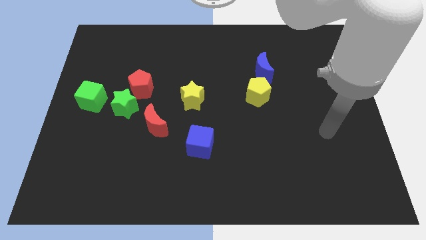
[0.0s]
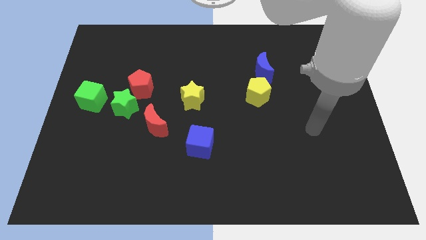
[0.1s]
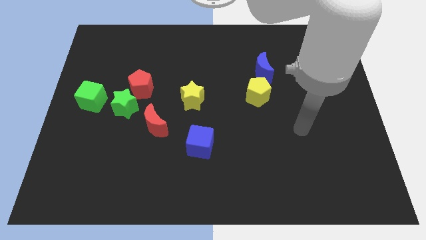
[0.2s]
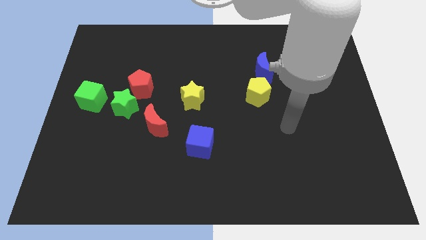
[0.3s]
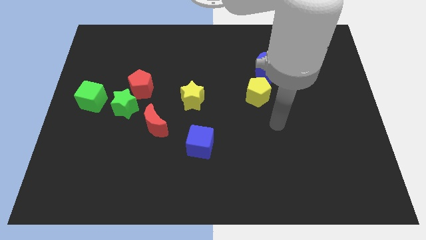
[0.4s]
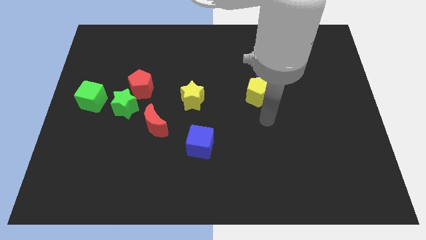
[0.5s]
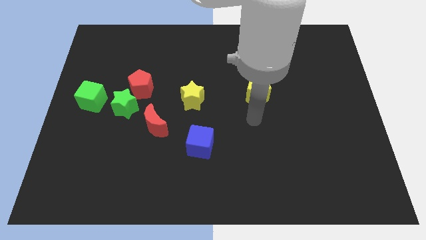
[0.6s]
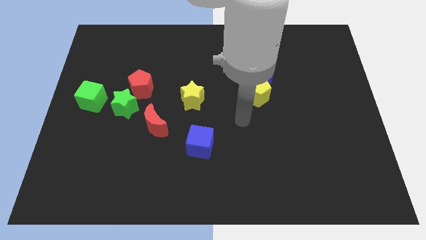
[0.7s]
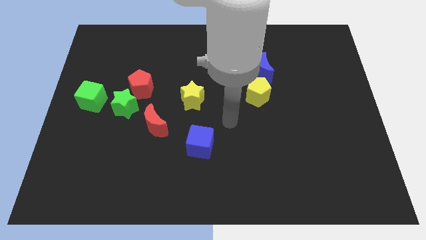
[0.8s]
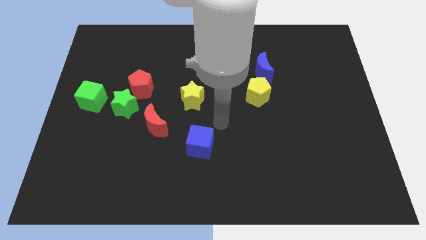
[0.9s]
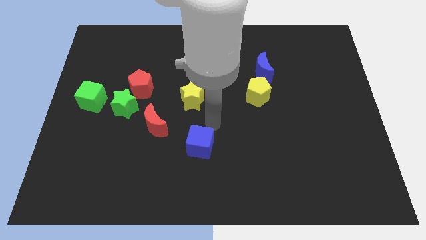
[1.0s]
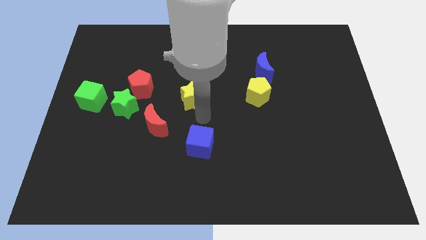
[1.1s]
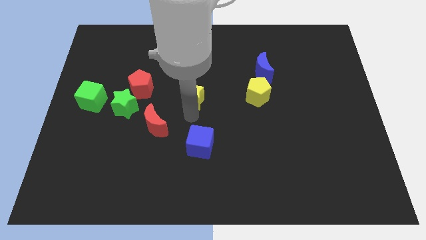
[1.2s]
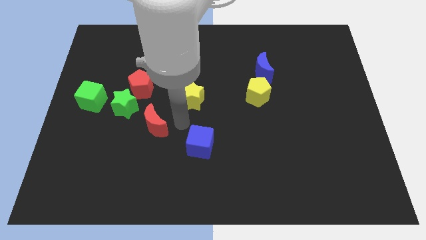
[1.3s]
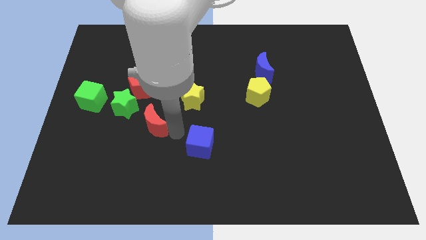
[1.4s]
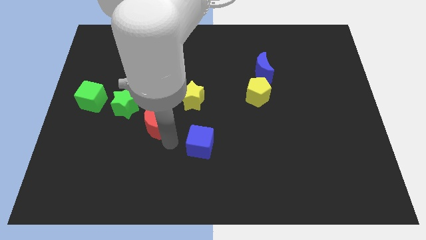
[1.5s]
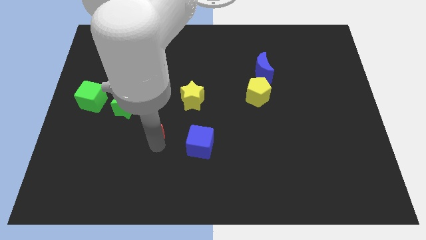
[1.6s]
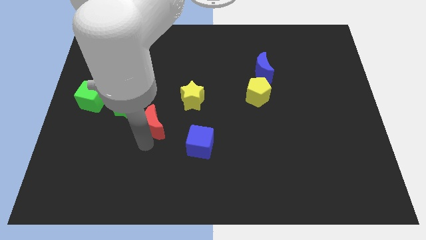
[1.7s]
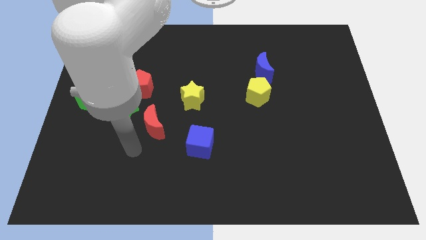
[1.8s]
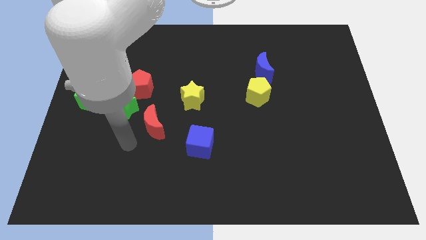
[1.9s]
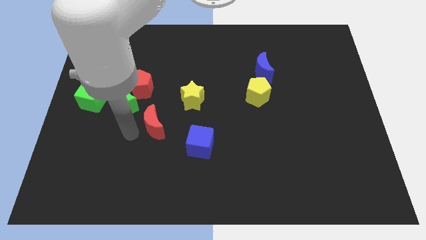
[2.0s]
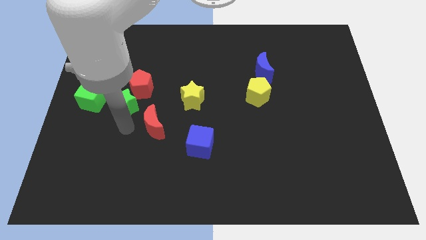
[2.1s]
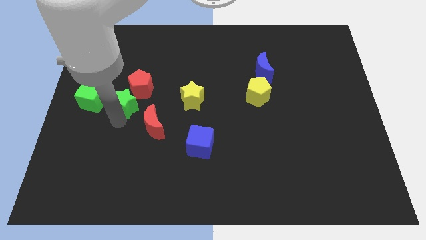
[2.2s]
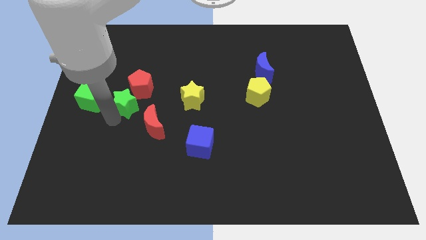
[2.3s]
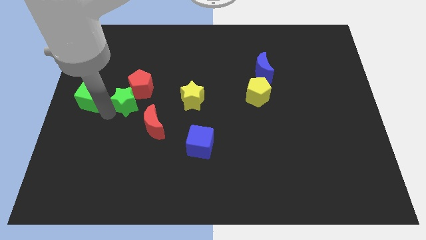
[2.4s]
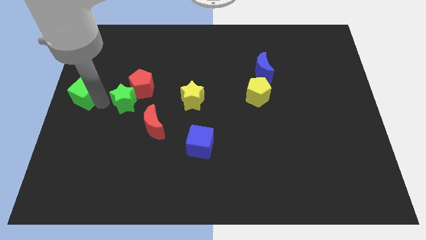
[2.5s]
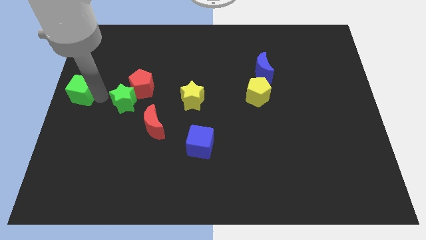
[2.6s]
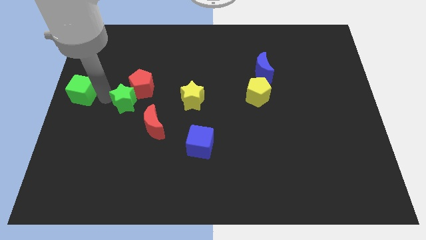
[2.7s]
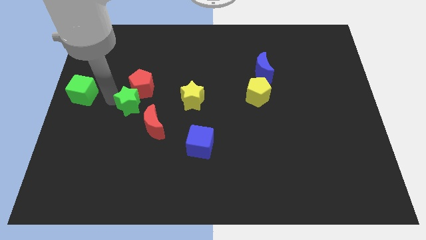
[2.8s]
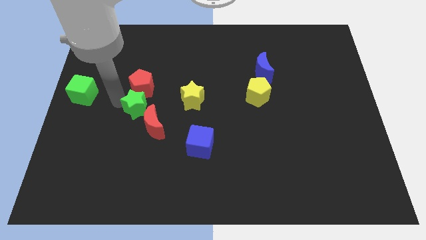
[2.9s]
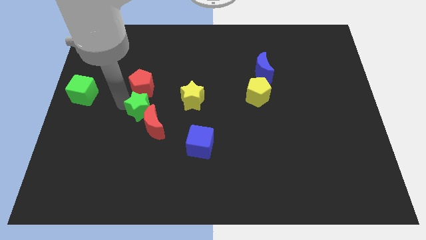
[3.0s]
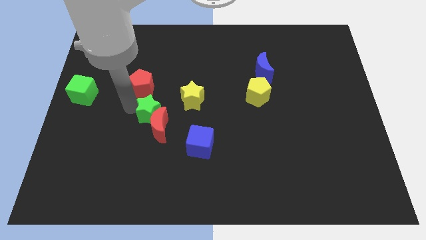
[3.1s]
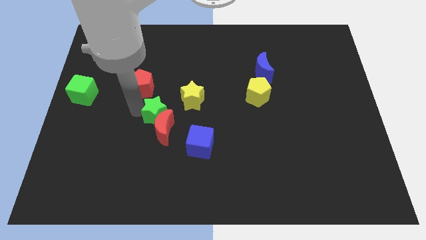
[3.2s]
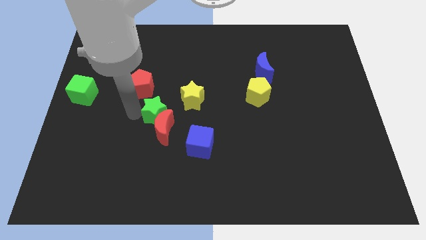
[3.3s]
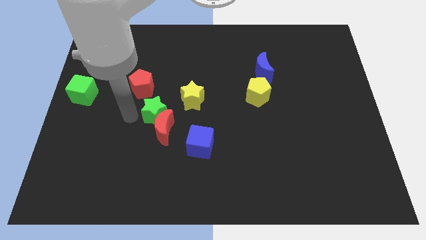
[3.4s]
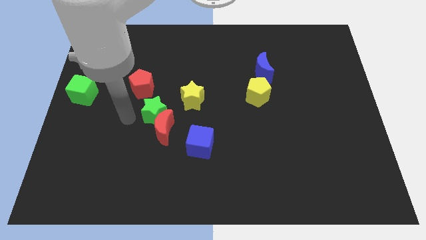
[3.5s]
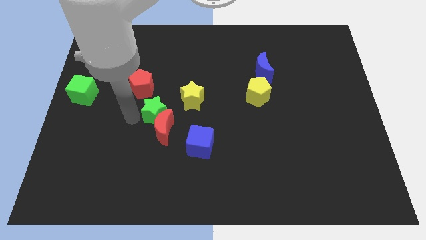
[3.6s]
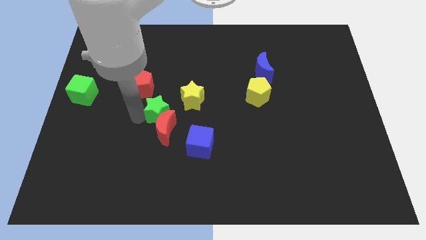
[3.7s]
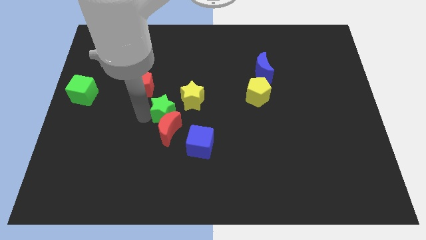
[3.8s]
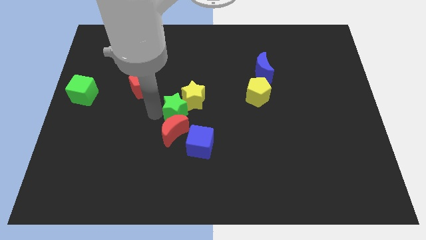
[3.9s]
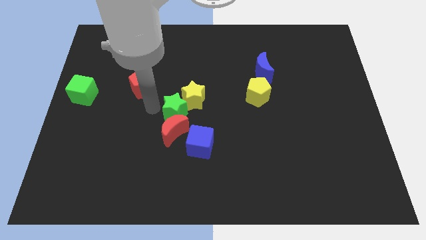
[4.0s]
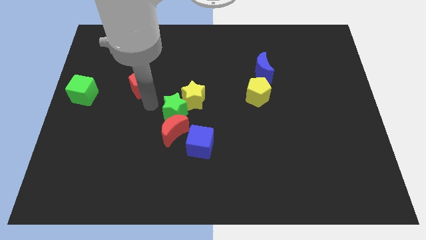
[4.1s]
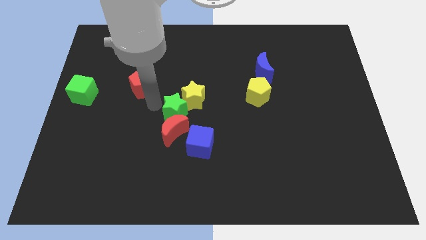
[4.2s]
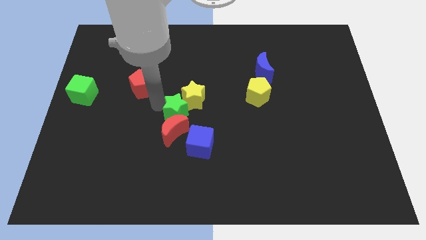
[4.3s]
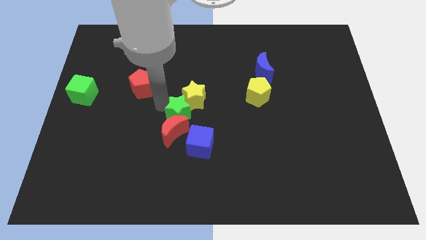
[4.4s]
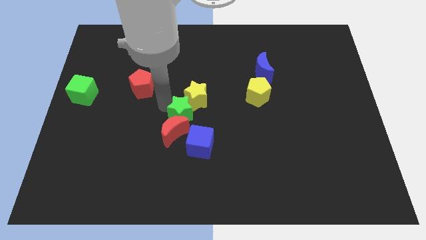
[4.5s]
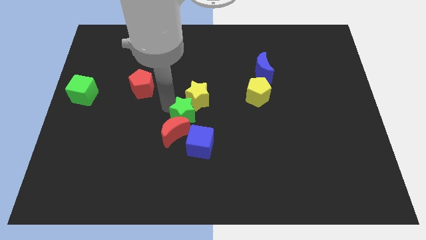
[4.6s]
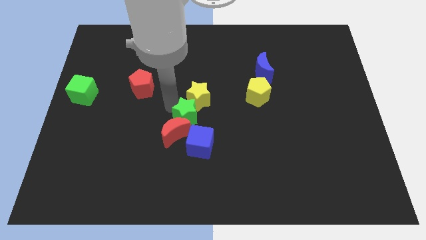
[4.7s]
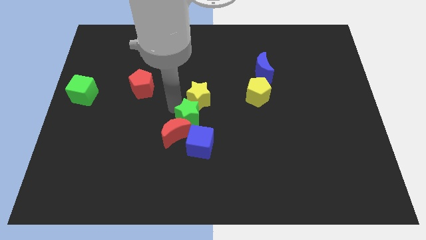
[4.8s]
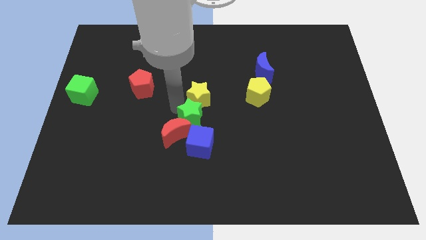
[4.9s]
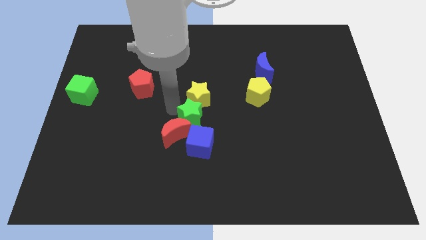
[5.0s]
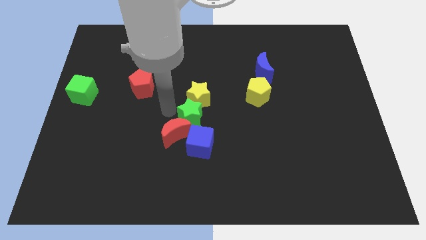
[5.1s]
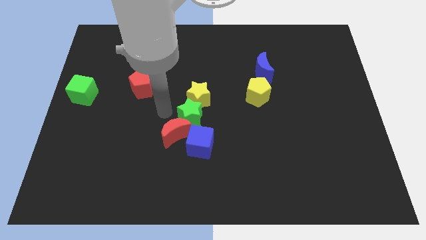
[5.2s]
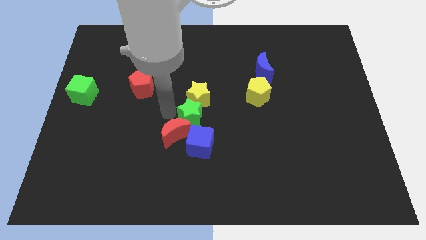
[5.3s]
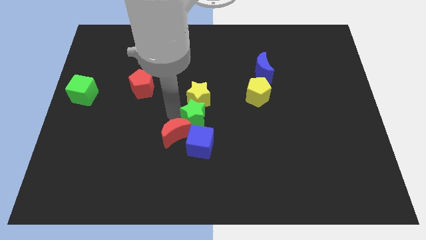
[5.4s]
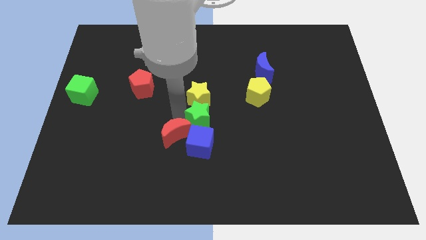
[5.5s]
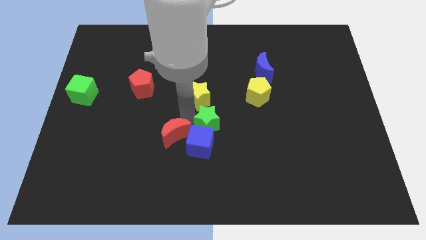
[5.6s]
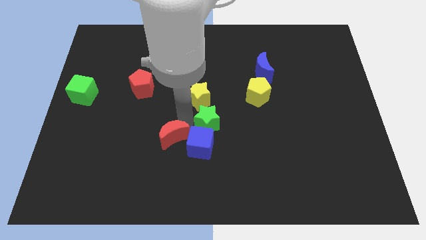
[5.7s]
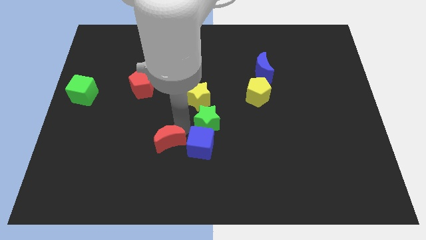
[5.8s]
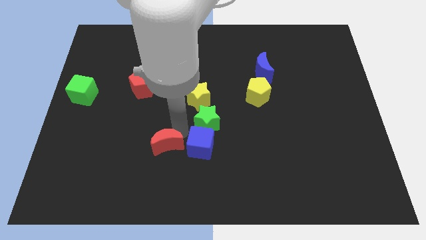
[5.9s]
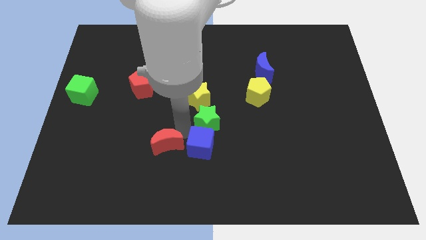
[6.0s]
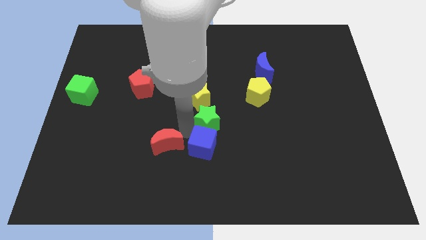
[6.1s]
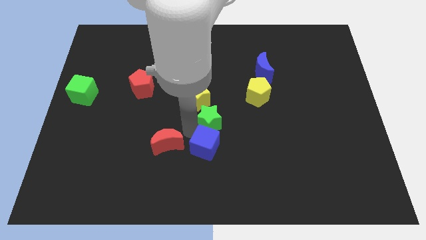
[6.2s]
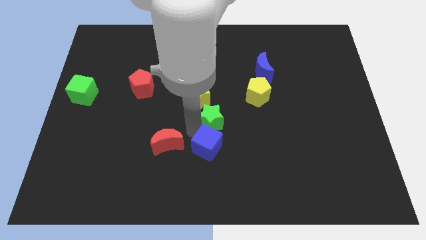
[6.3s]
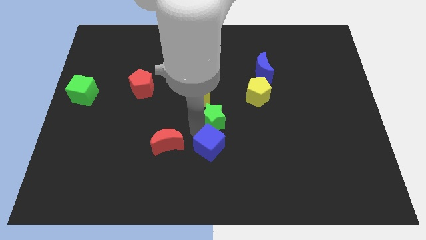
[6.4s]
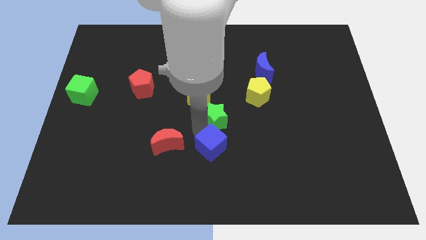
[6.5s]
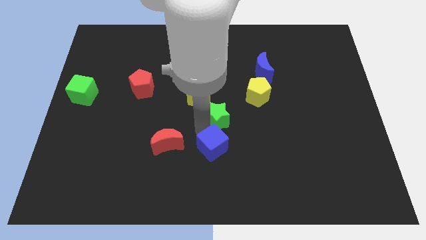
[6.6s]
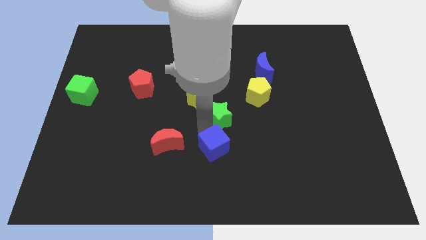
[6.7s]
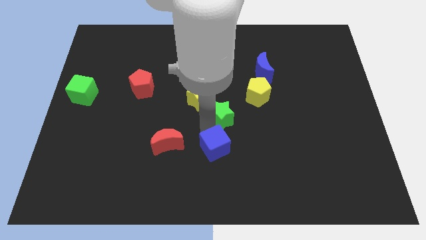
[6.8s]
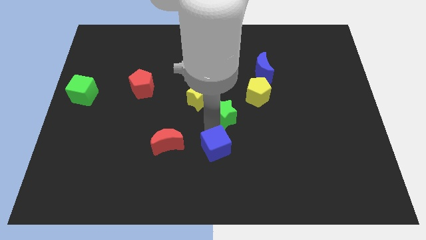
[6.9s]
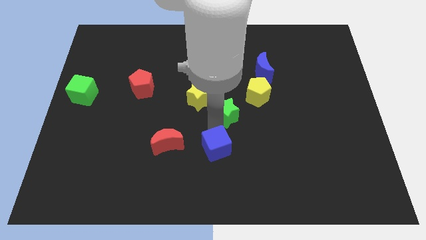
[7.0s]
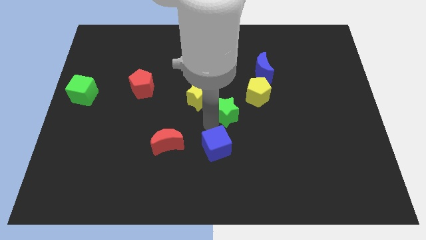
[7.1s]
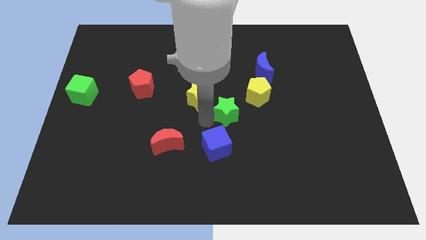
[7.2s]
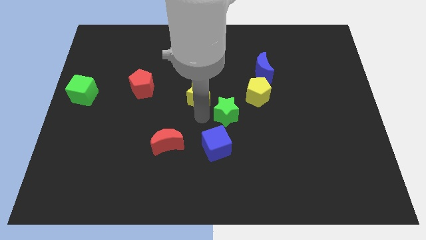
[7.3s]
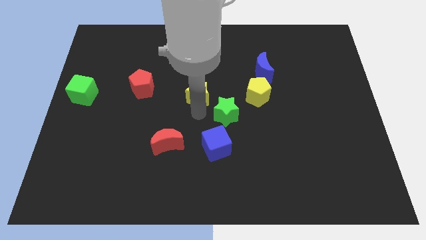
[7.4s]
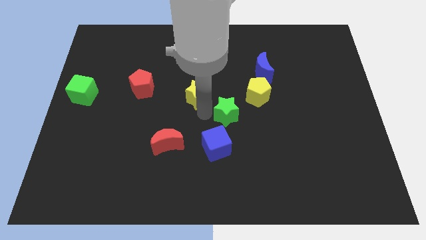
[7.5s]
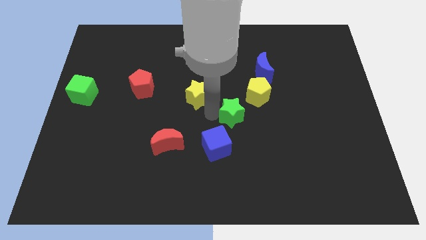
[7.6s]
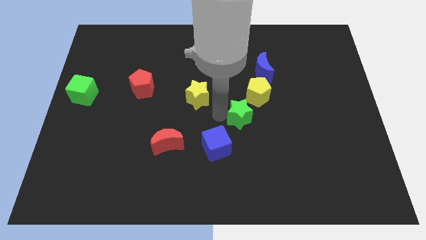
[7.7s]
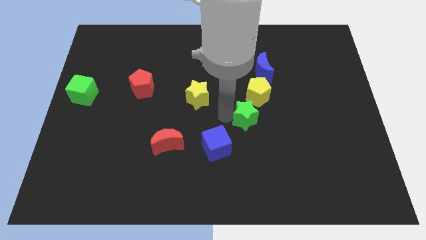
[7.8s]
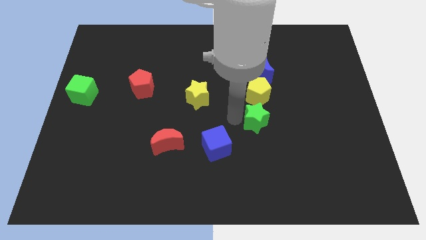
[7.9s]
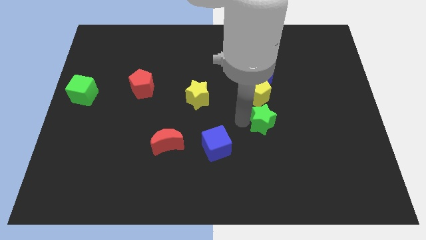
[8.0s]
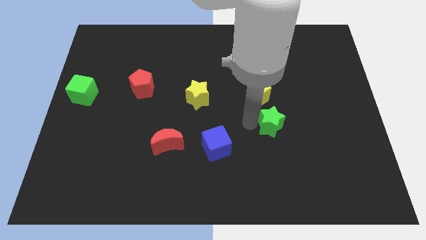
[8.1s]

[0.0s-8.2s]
push the green star to the bottom right side of the yellow pentagon
